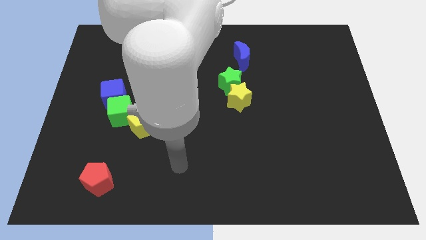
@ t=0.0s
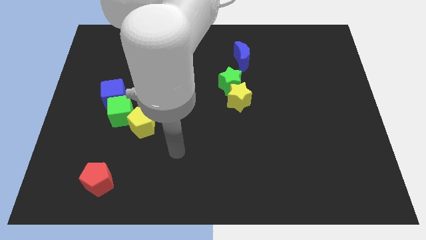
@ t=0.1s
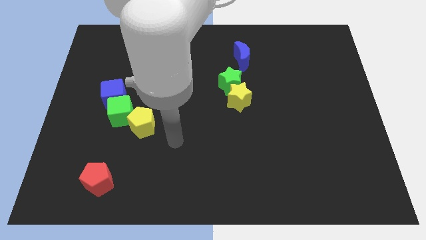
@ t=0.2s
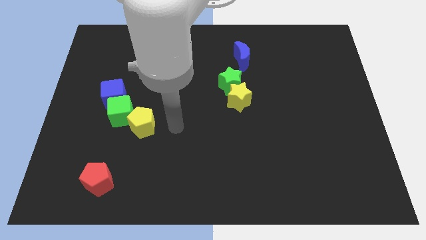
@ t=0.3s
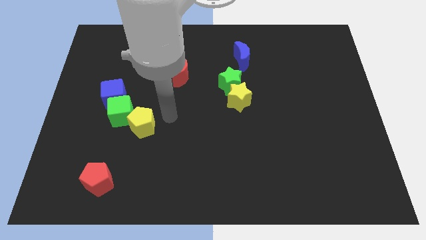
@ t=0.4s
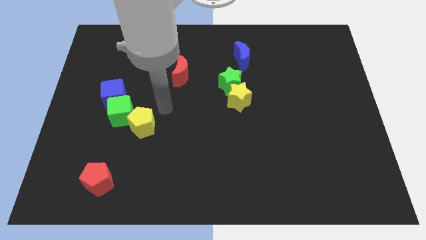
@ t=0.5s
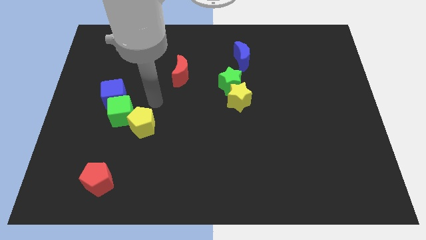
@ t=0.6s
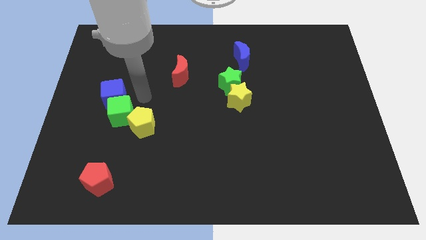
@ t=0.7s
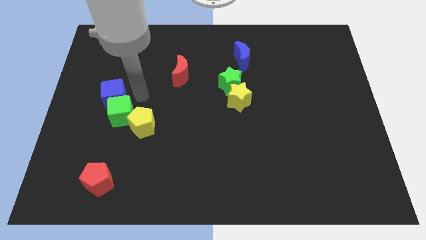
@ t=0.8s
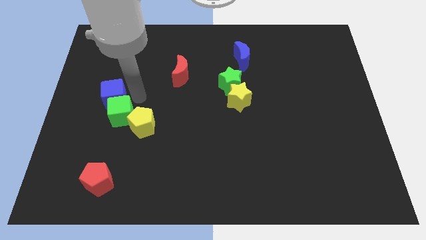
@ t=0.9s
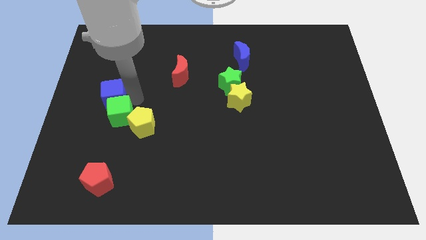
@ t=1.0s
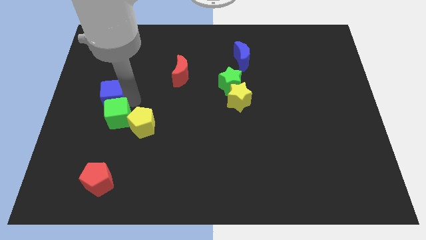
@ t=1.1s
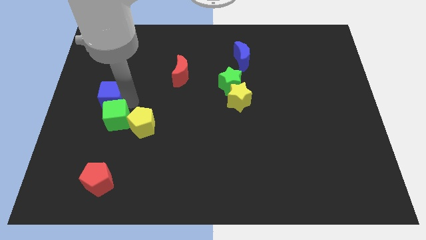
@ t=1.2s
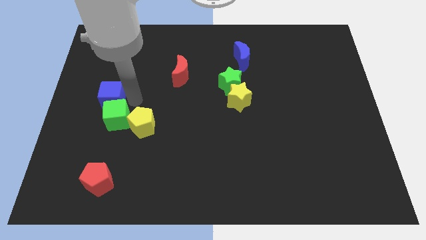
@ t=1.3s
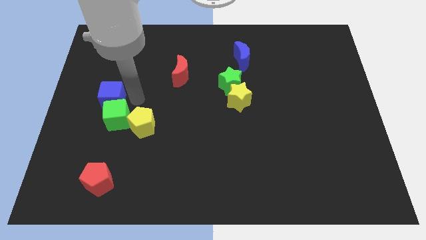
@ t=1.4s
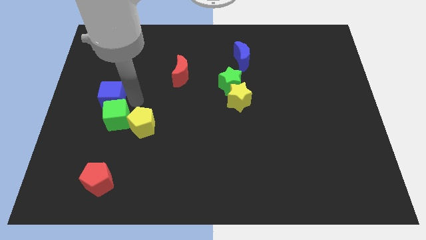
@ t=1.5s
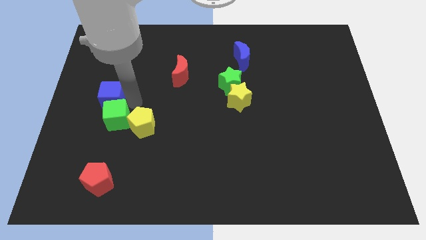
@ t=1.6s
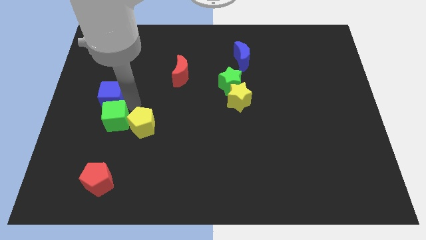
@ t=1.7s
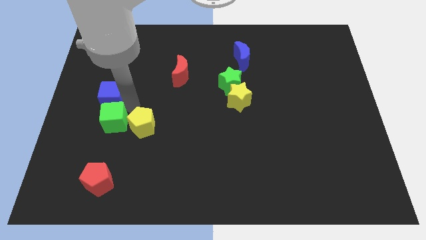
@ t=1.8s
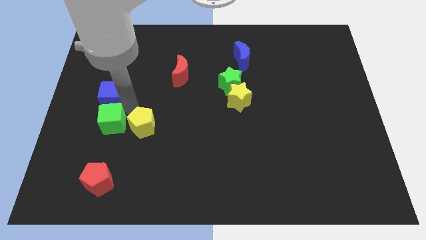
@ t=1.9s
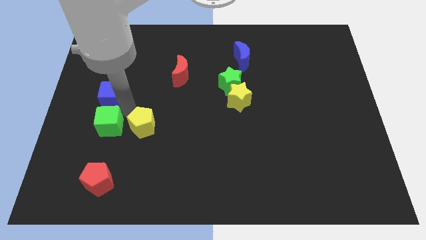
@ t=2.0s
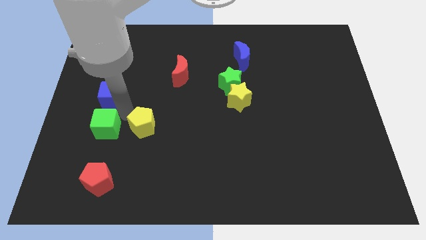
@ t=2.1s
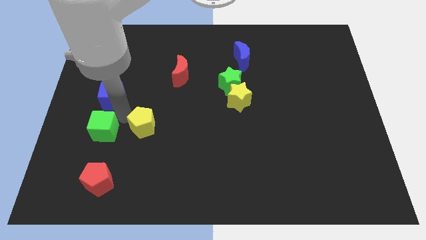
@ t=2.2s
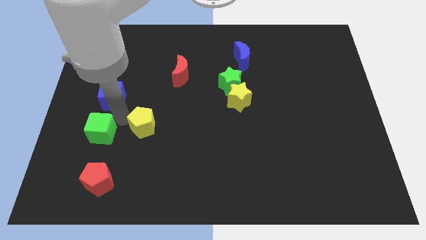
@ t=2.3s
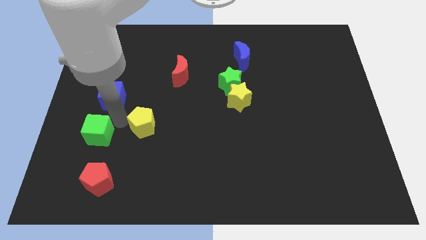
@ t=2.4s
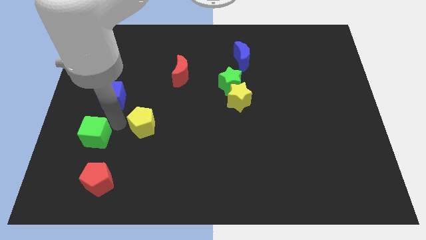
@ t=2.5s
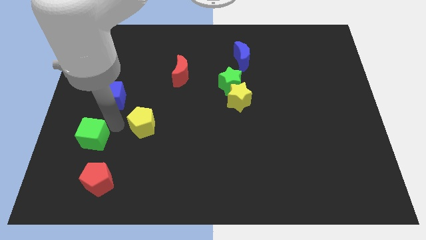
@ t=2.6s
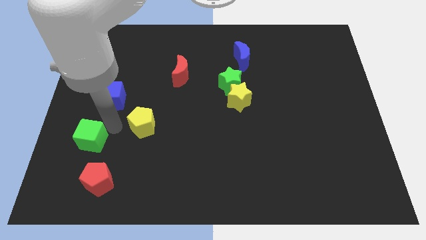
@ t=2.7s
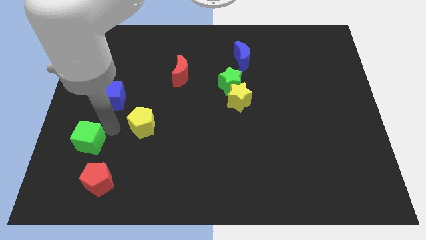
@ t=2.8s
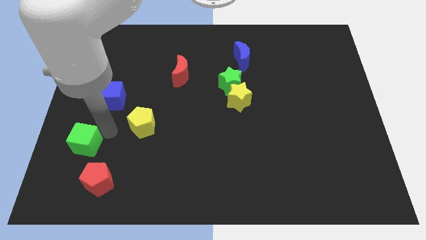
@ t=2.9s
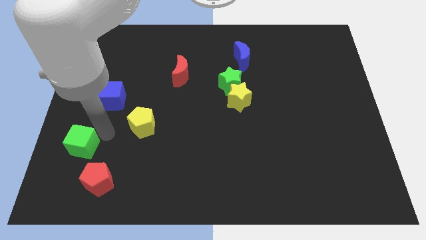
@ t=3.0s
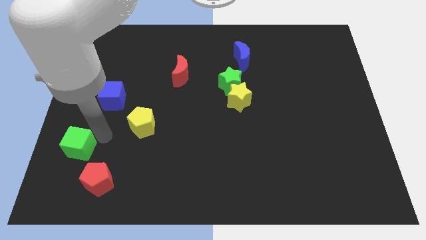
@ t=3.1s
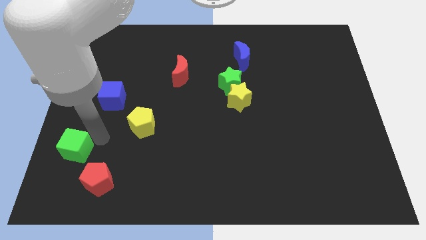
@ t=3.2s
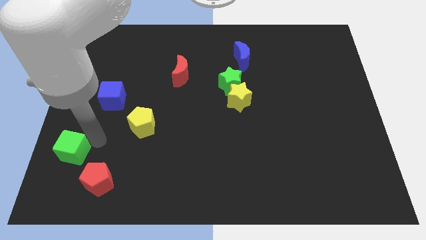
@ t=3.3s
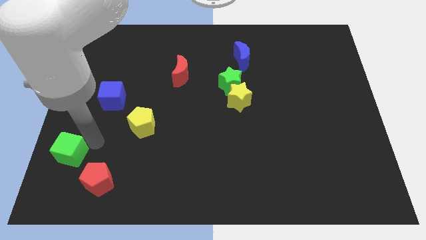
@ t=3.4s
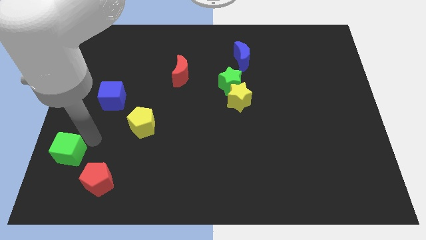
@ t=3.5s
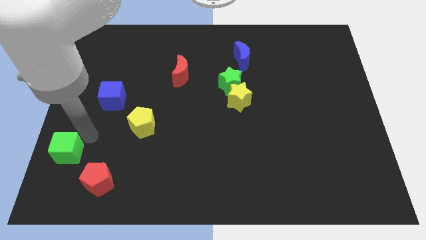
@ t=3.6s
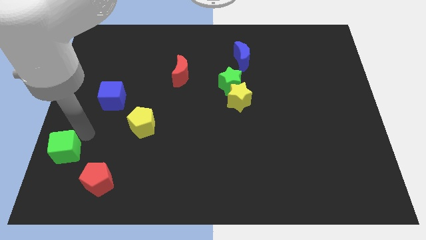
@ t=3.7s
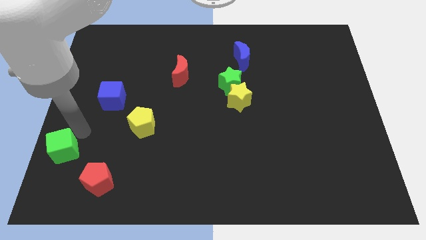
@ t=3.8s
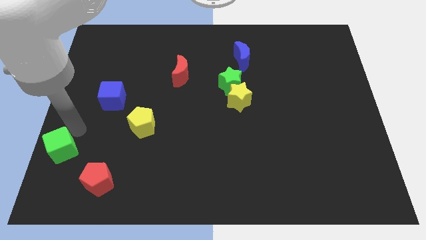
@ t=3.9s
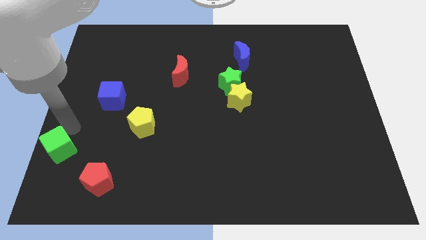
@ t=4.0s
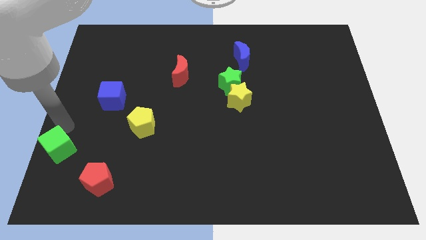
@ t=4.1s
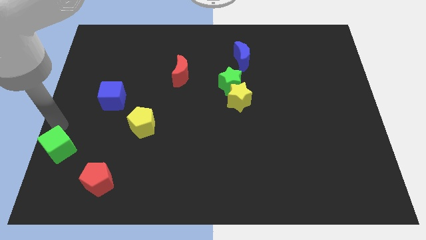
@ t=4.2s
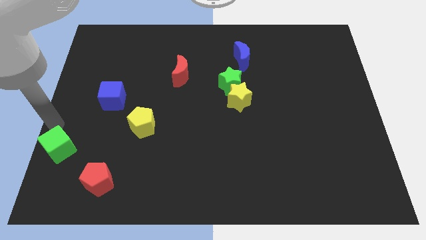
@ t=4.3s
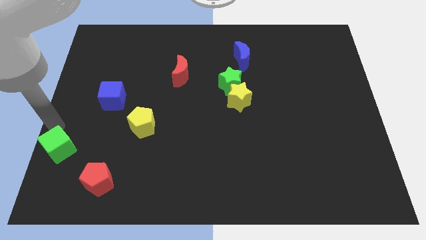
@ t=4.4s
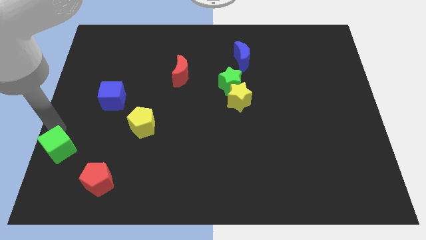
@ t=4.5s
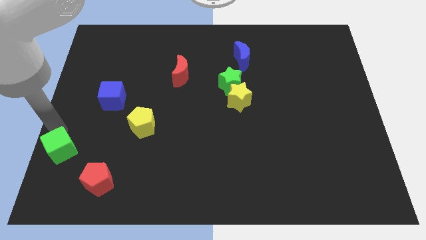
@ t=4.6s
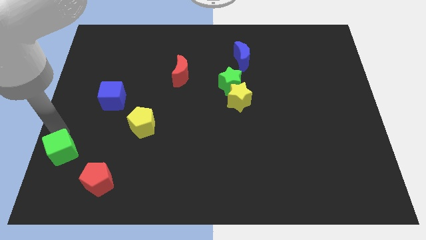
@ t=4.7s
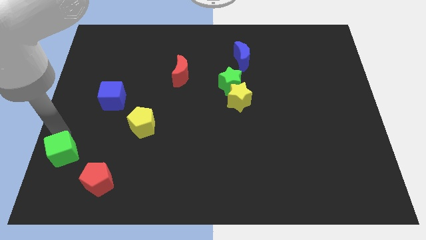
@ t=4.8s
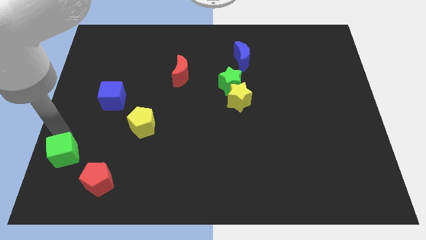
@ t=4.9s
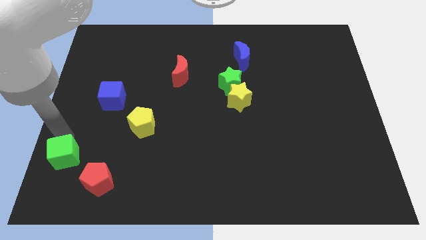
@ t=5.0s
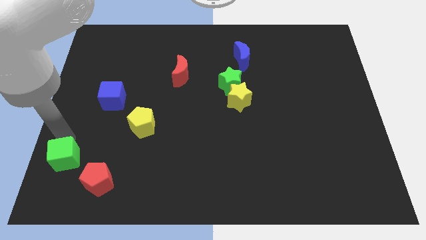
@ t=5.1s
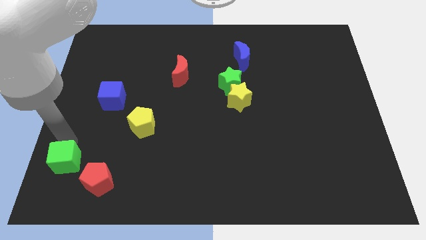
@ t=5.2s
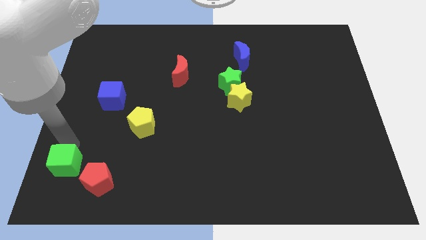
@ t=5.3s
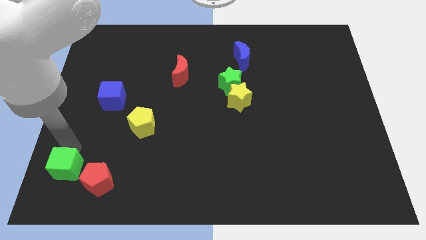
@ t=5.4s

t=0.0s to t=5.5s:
slide the green cube to the bottom left

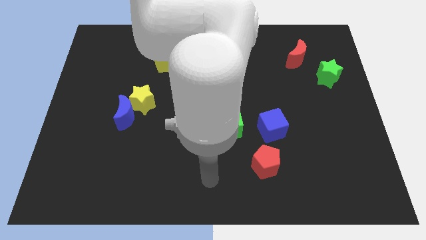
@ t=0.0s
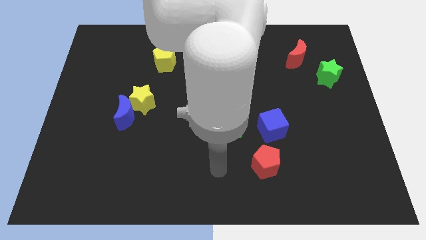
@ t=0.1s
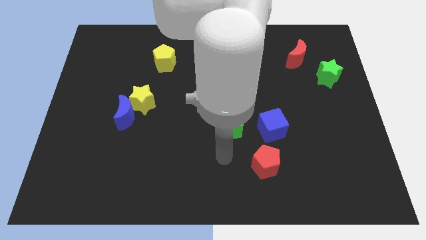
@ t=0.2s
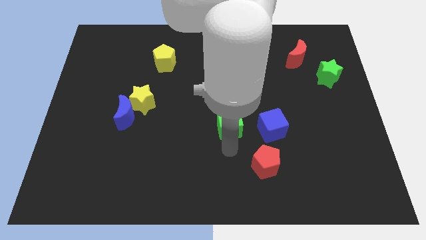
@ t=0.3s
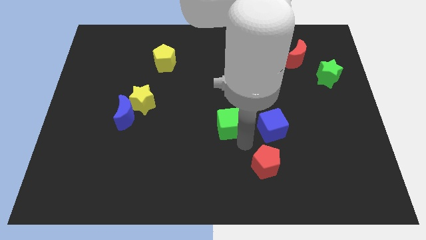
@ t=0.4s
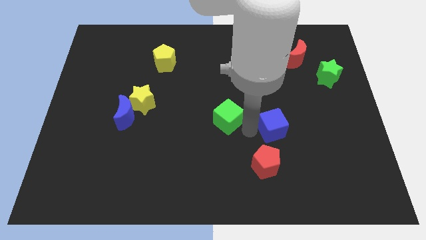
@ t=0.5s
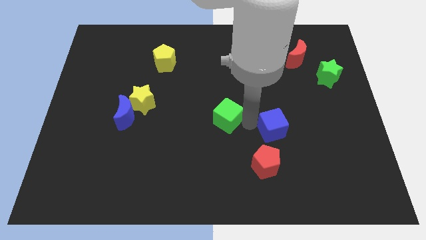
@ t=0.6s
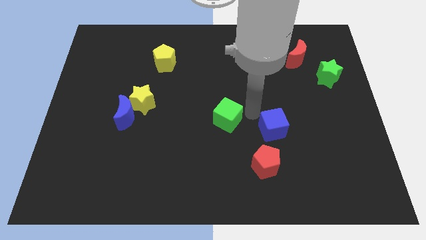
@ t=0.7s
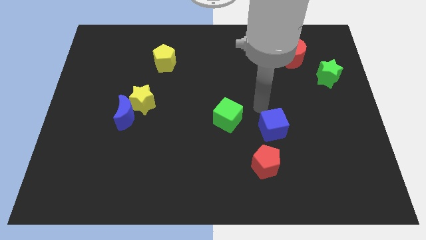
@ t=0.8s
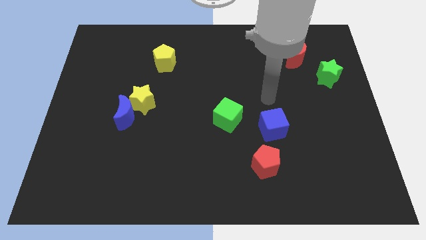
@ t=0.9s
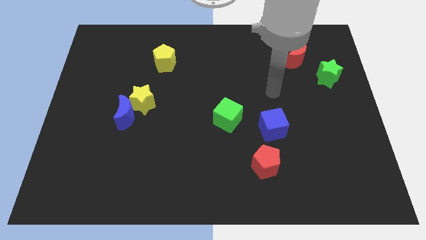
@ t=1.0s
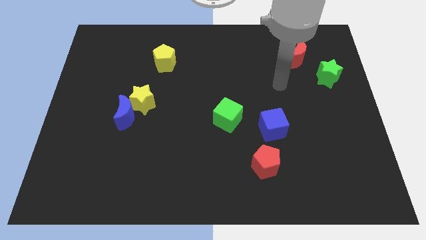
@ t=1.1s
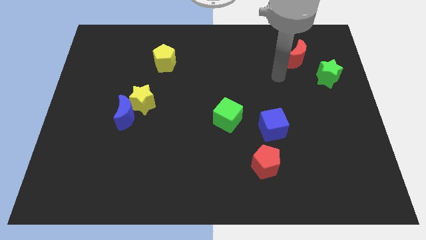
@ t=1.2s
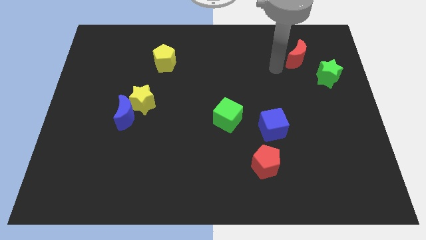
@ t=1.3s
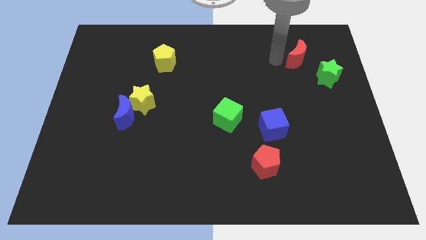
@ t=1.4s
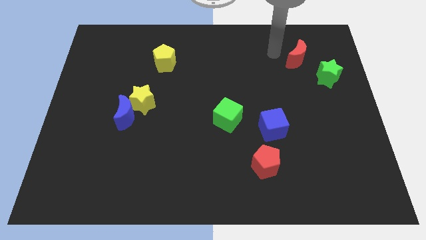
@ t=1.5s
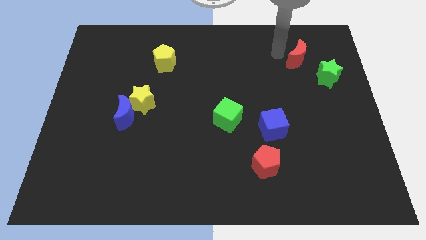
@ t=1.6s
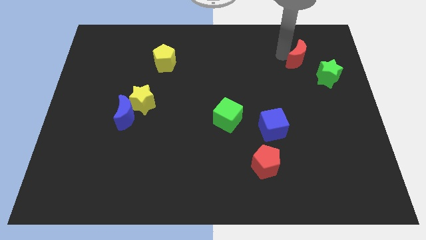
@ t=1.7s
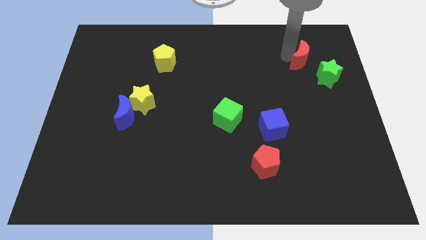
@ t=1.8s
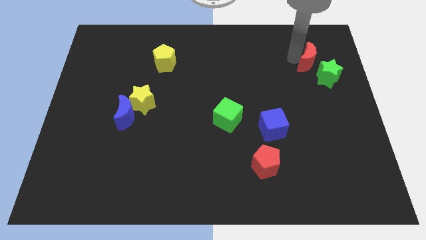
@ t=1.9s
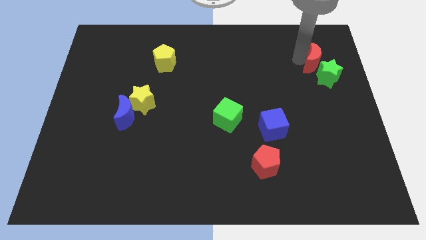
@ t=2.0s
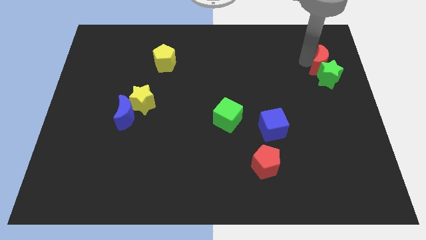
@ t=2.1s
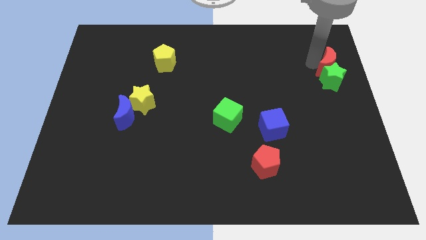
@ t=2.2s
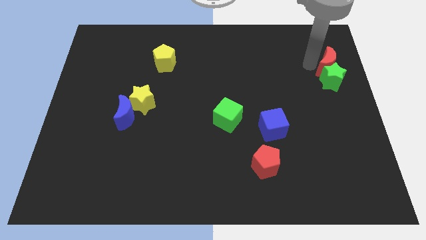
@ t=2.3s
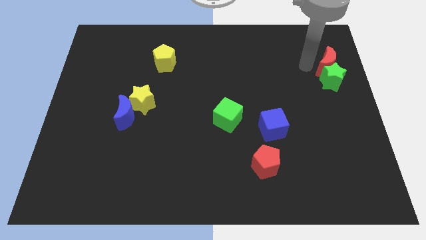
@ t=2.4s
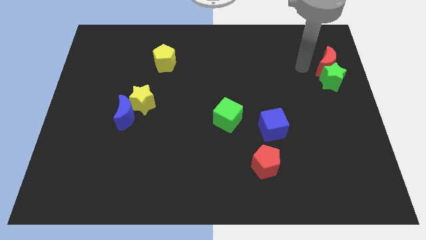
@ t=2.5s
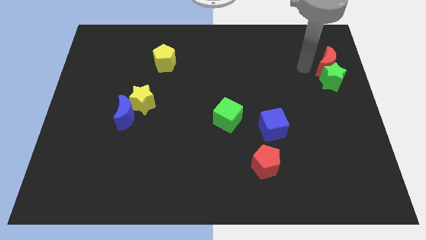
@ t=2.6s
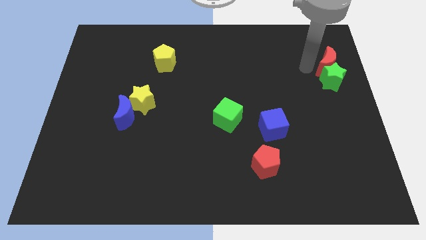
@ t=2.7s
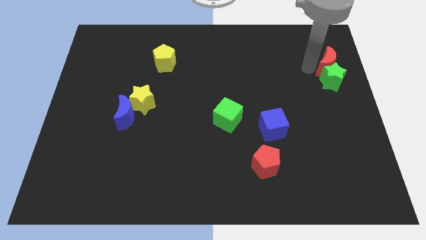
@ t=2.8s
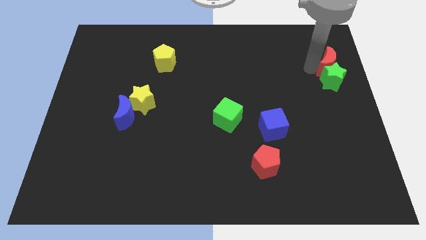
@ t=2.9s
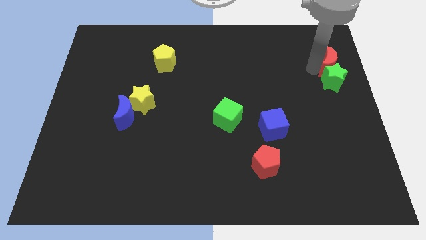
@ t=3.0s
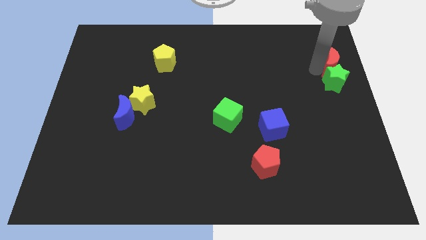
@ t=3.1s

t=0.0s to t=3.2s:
slide the red moon to the center right
